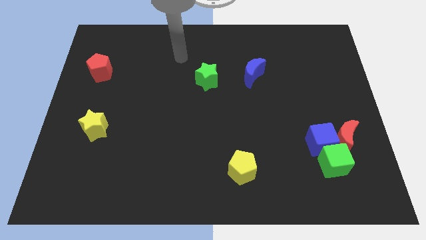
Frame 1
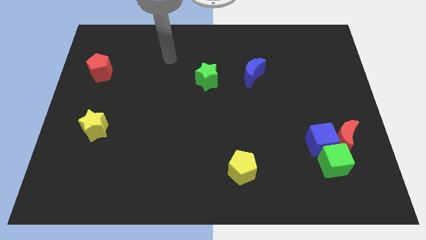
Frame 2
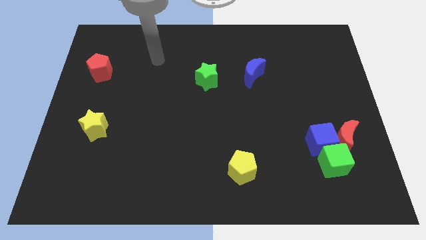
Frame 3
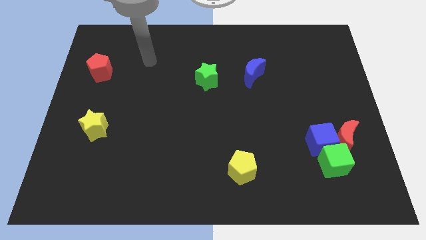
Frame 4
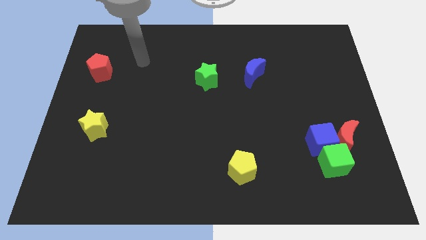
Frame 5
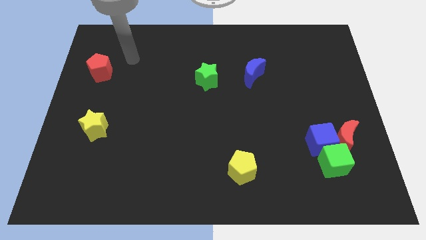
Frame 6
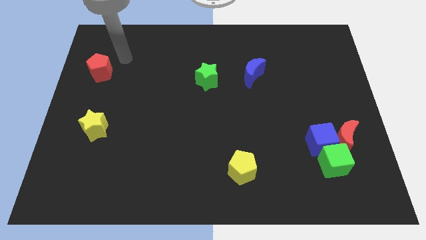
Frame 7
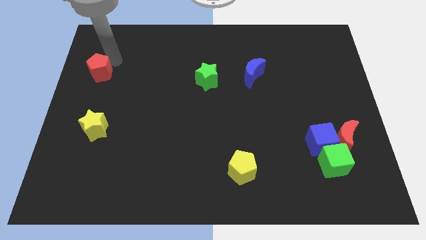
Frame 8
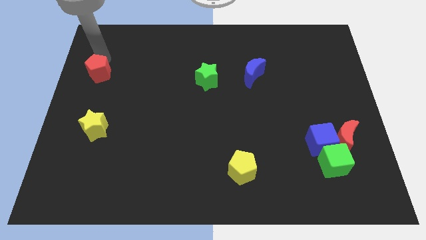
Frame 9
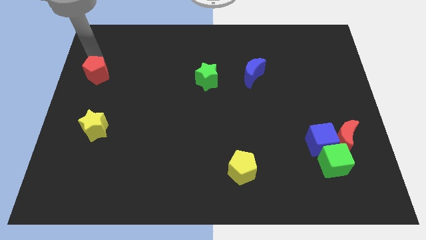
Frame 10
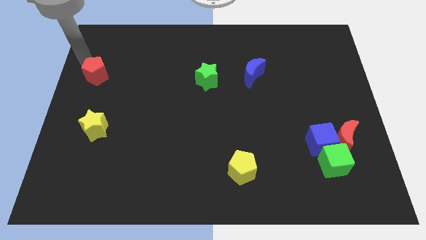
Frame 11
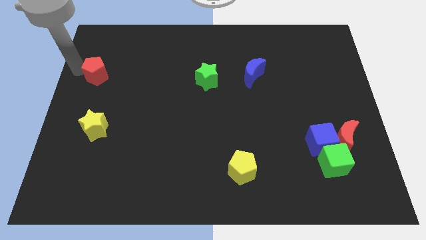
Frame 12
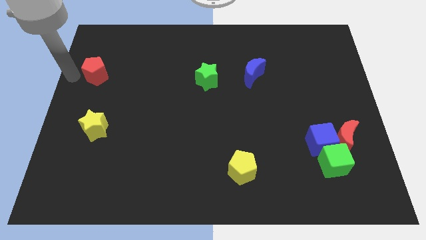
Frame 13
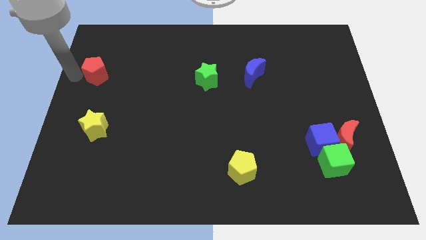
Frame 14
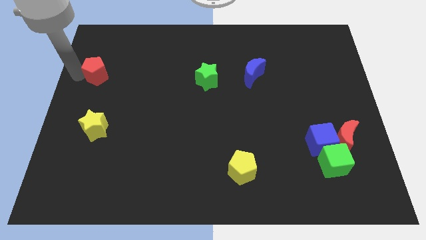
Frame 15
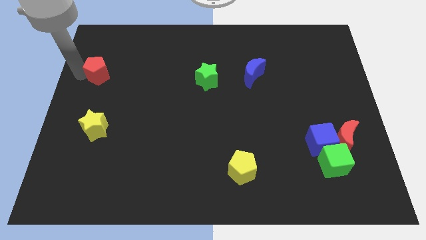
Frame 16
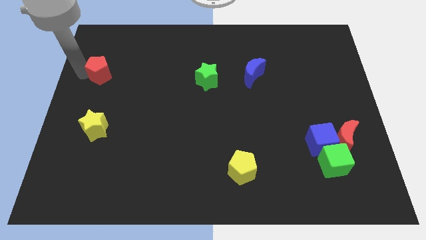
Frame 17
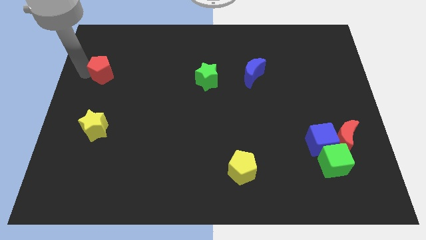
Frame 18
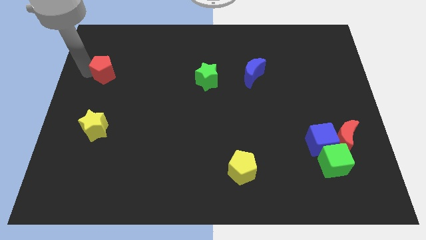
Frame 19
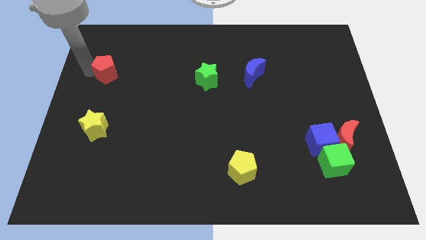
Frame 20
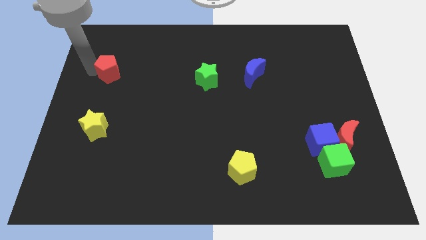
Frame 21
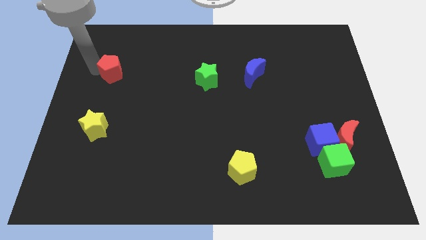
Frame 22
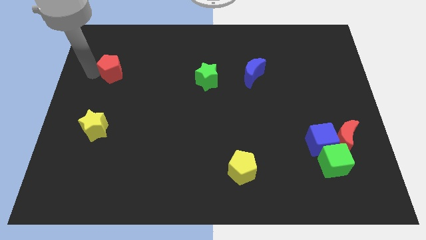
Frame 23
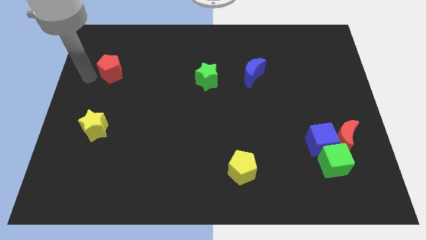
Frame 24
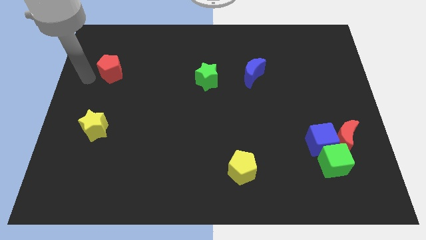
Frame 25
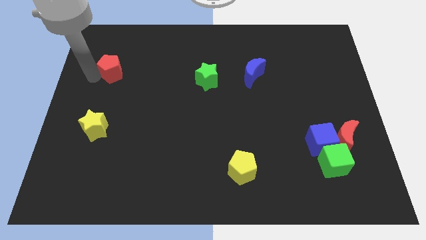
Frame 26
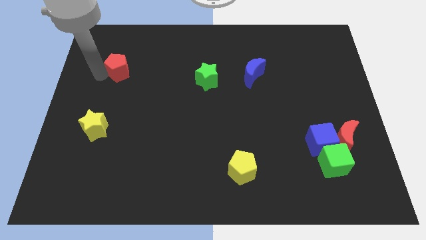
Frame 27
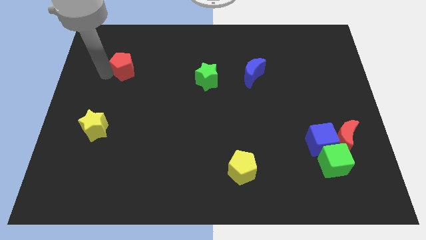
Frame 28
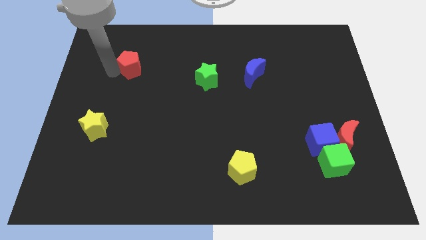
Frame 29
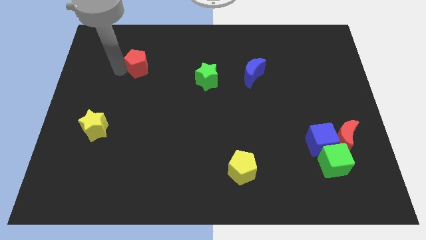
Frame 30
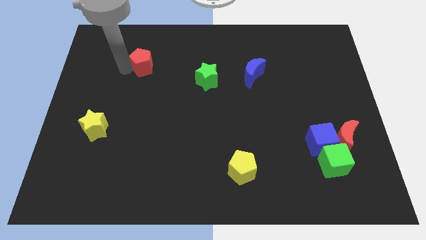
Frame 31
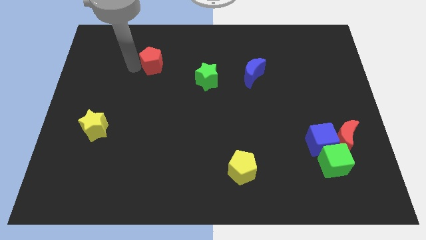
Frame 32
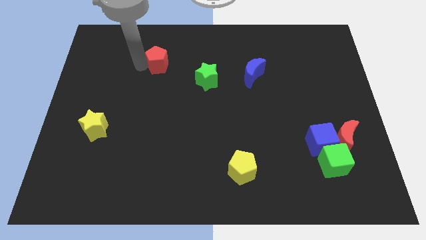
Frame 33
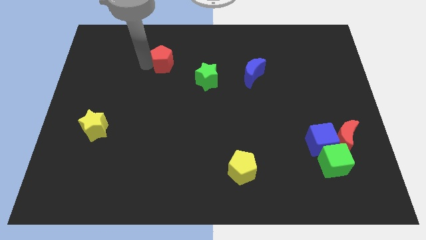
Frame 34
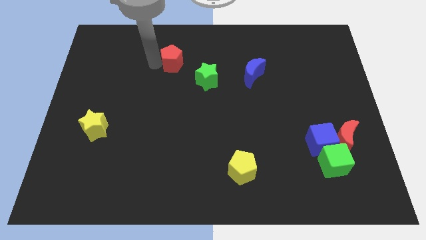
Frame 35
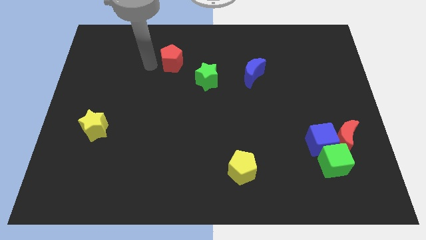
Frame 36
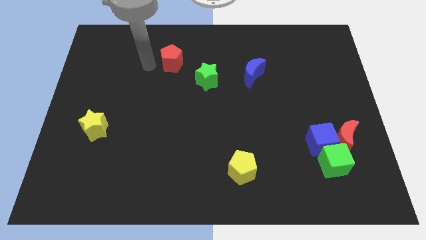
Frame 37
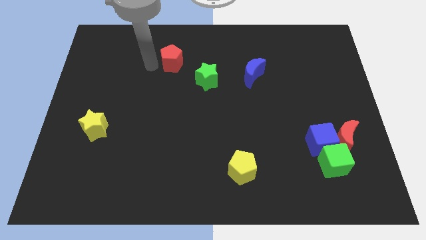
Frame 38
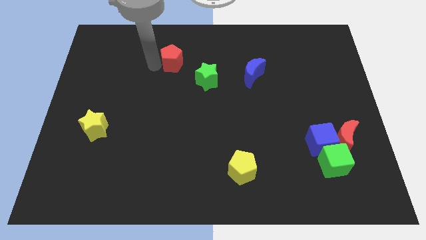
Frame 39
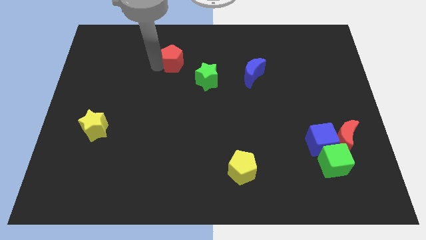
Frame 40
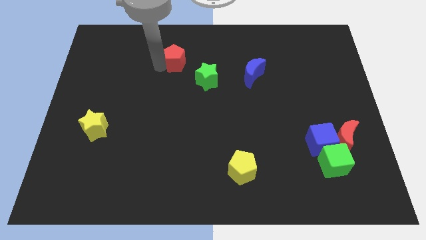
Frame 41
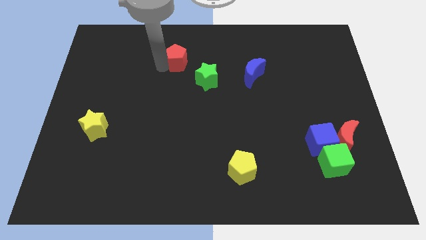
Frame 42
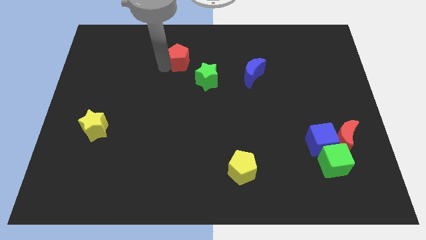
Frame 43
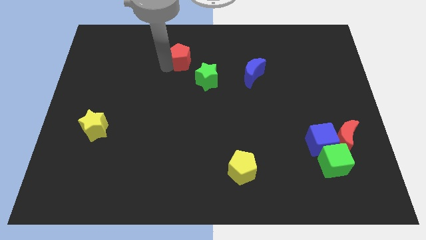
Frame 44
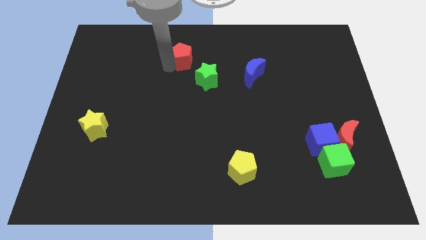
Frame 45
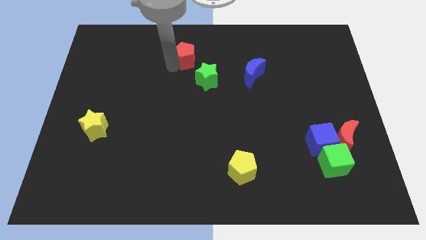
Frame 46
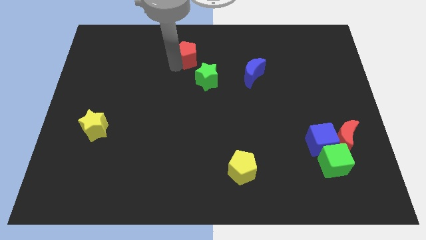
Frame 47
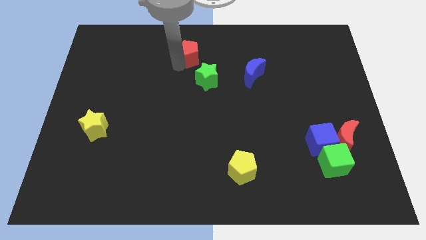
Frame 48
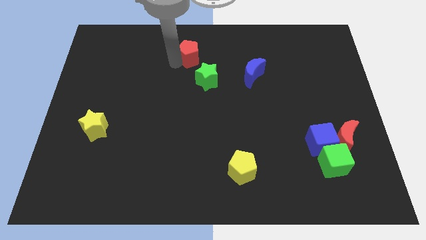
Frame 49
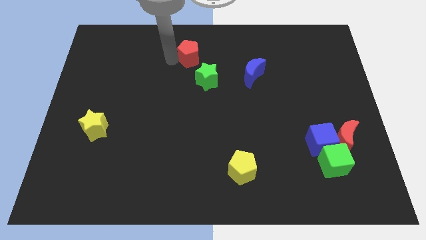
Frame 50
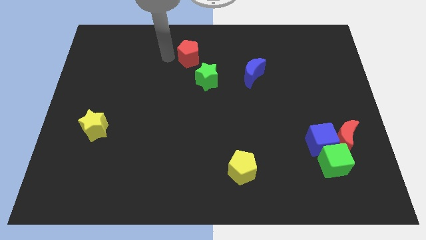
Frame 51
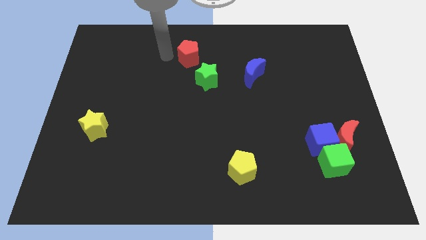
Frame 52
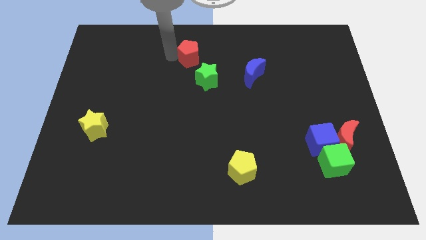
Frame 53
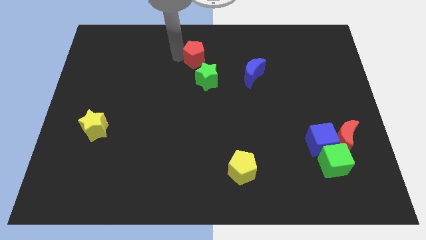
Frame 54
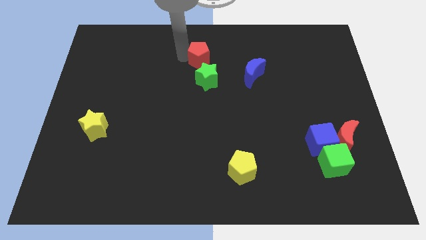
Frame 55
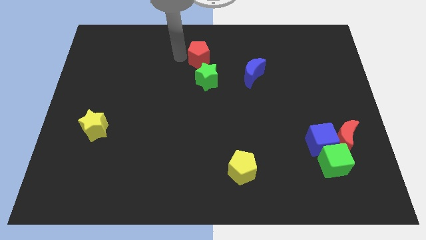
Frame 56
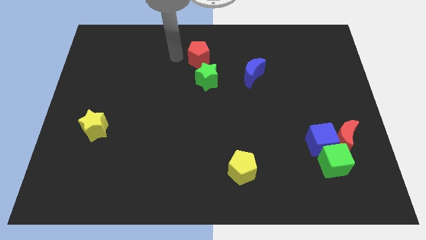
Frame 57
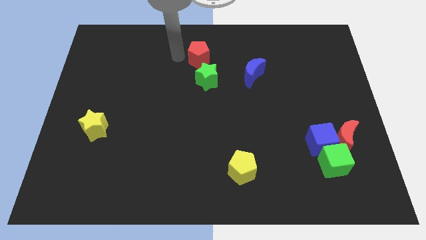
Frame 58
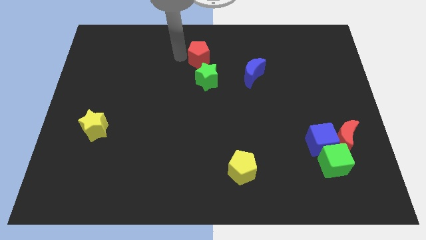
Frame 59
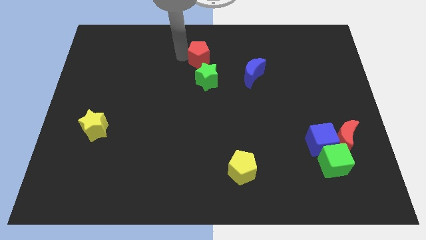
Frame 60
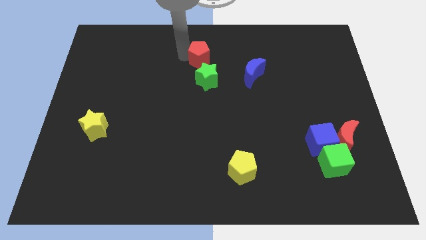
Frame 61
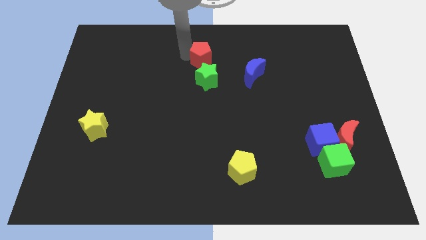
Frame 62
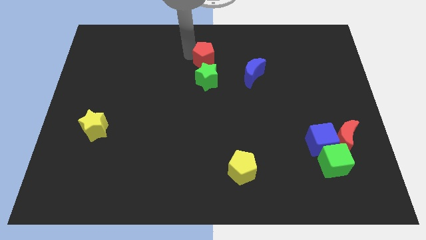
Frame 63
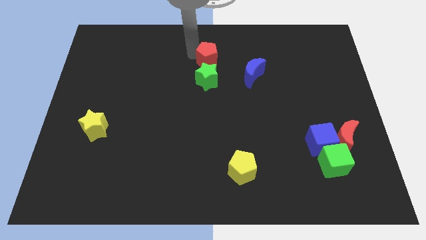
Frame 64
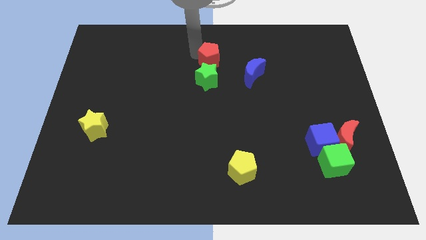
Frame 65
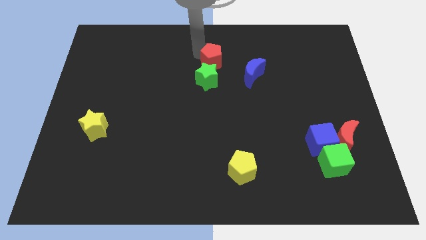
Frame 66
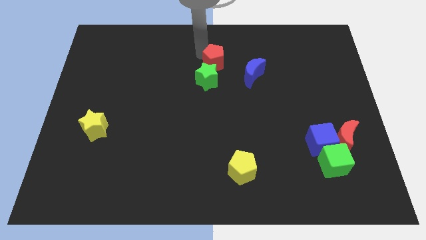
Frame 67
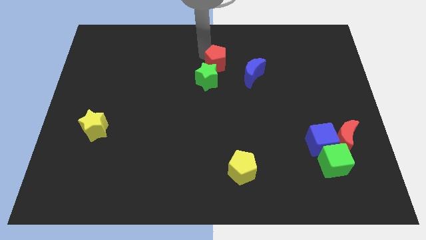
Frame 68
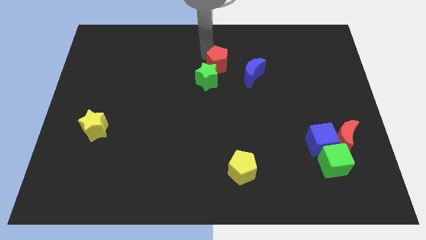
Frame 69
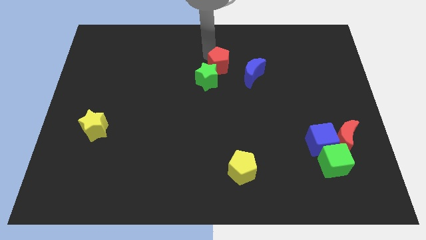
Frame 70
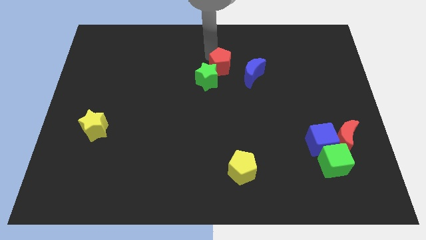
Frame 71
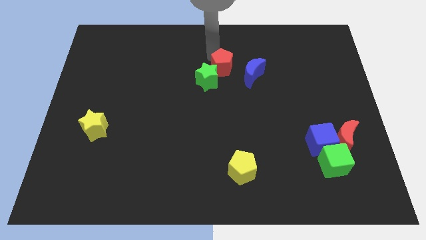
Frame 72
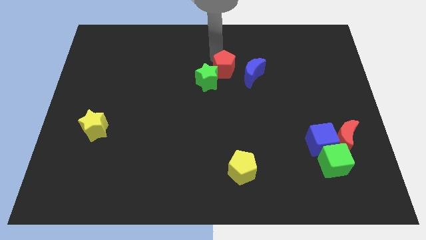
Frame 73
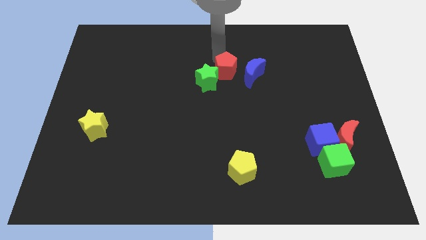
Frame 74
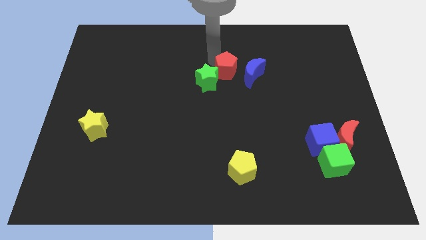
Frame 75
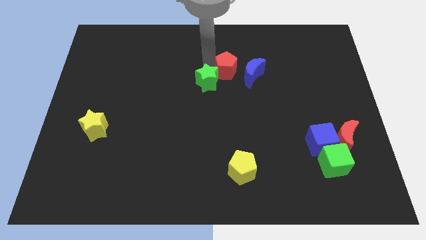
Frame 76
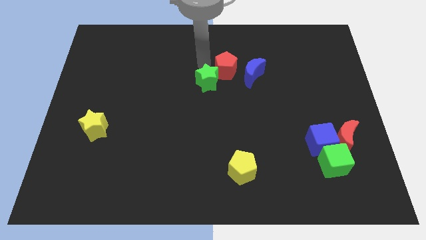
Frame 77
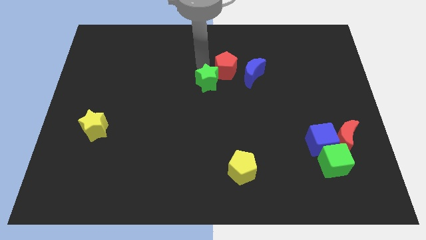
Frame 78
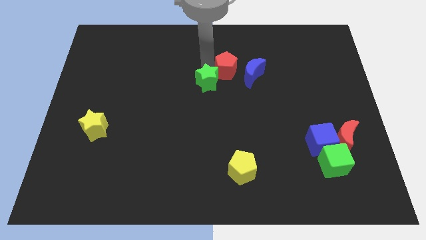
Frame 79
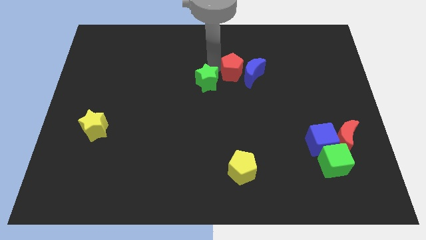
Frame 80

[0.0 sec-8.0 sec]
move the red pentagon next to the blue moon
